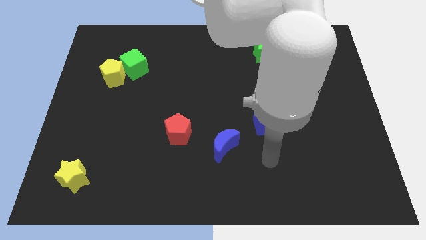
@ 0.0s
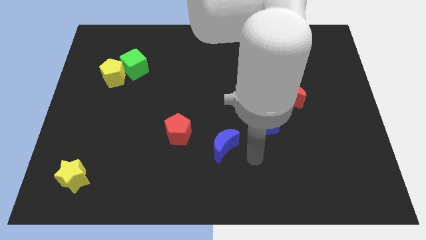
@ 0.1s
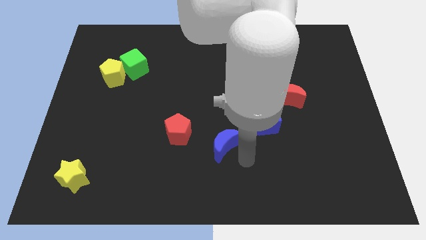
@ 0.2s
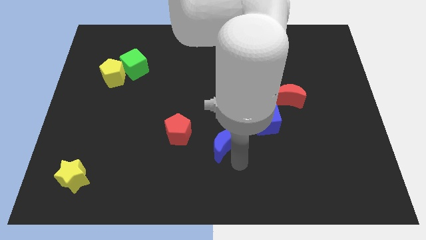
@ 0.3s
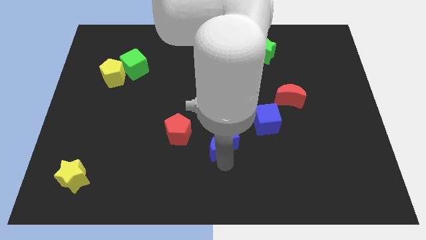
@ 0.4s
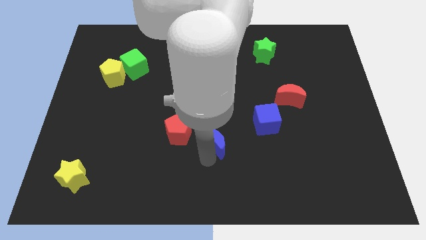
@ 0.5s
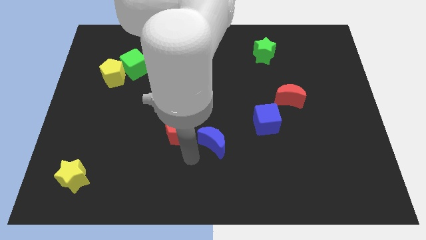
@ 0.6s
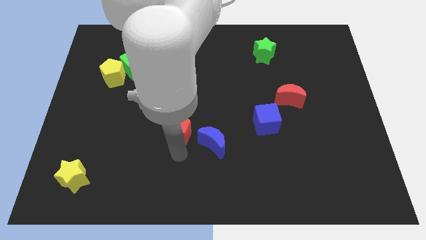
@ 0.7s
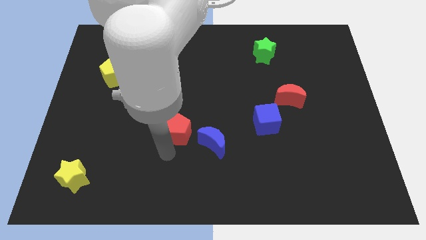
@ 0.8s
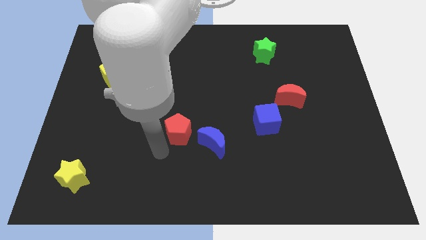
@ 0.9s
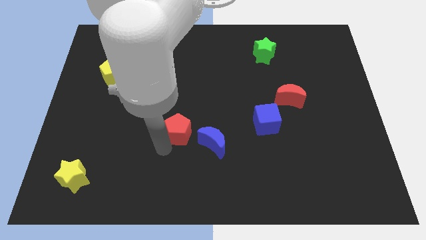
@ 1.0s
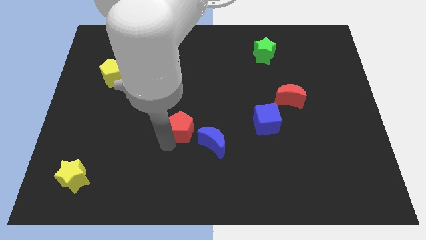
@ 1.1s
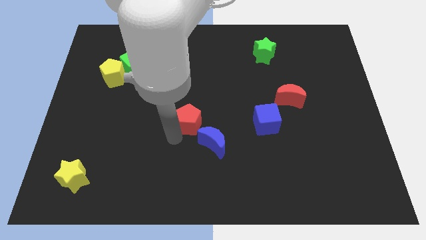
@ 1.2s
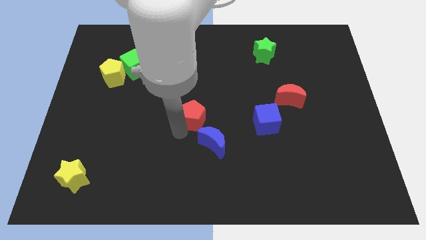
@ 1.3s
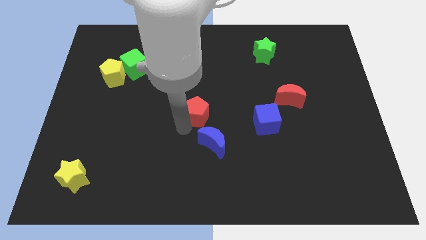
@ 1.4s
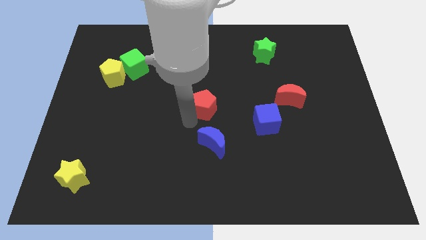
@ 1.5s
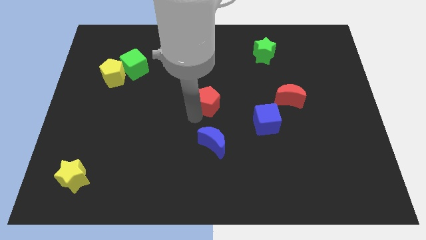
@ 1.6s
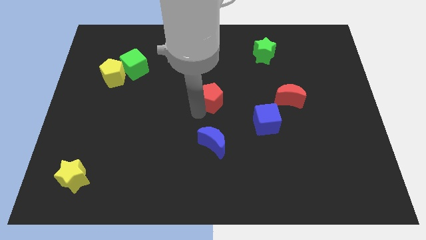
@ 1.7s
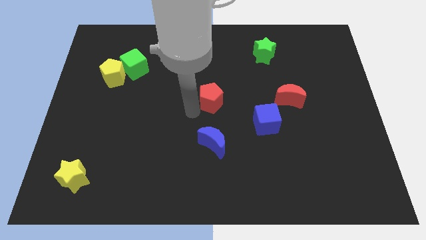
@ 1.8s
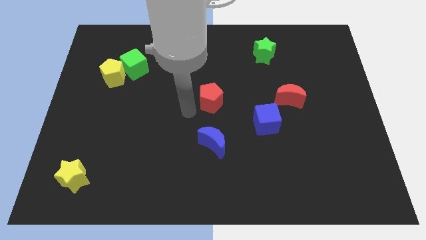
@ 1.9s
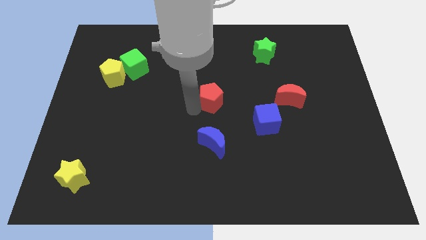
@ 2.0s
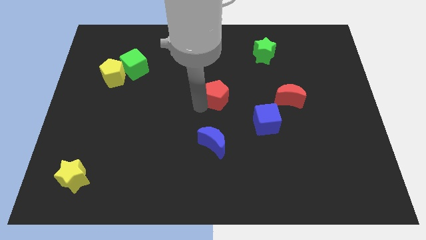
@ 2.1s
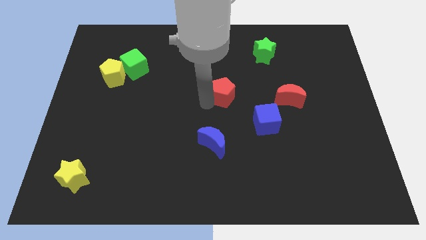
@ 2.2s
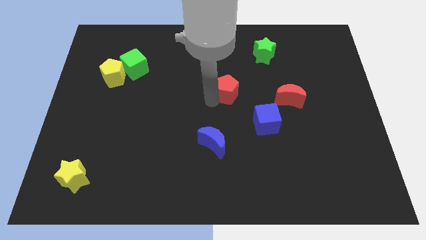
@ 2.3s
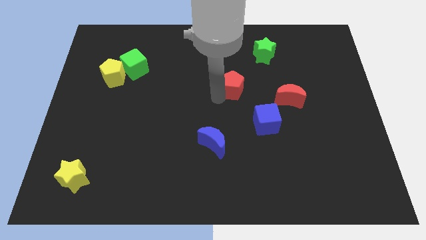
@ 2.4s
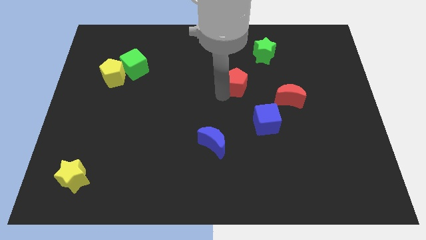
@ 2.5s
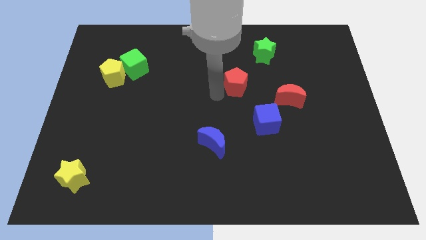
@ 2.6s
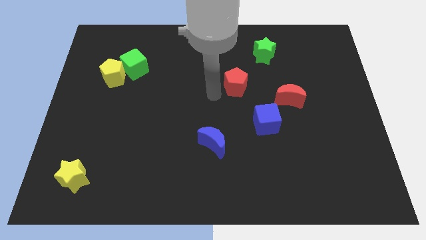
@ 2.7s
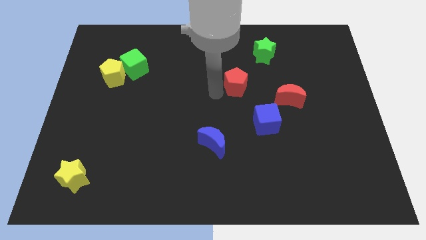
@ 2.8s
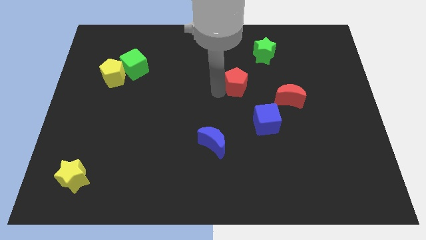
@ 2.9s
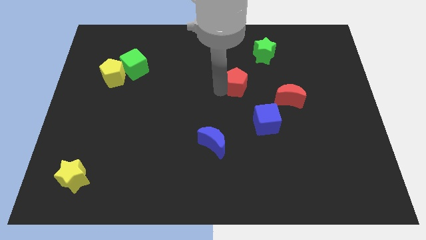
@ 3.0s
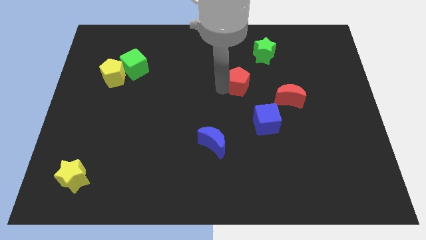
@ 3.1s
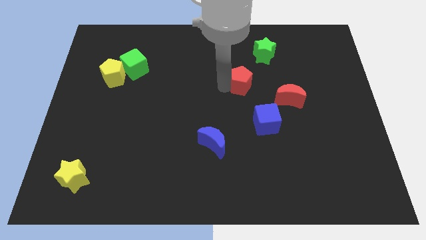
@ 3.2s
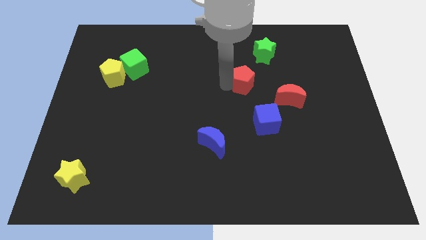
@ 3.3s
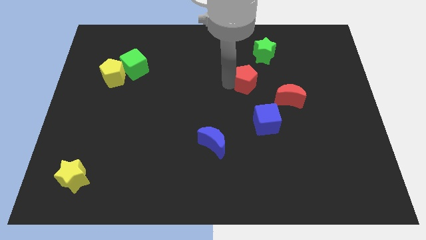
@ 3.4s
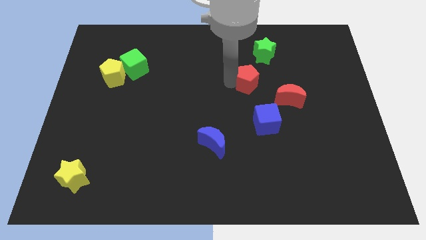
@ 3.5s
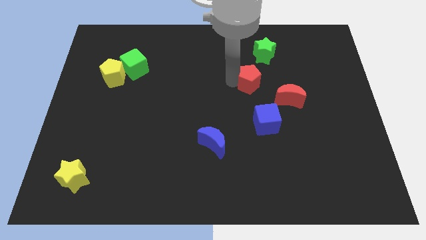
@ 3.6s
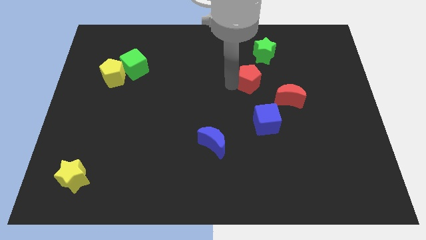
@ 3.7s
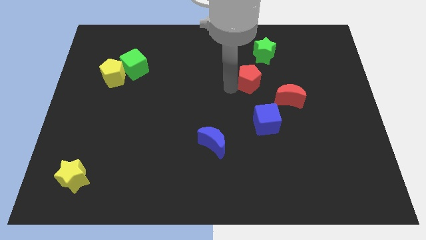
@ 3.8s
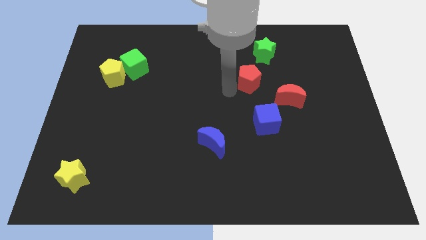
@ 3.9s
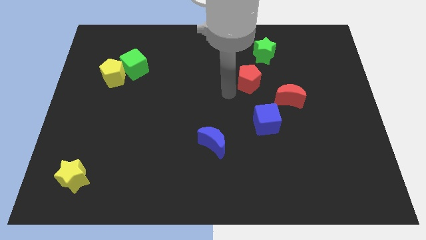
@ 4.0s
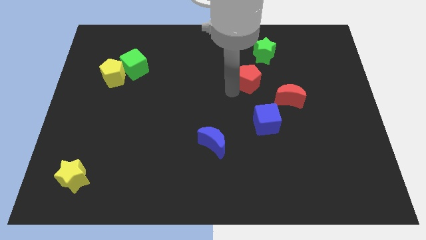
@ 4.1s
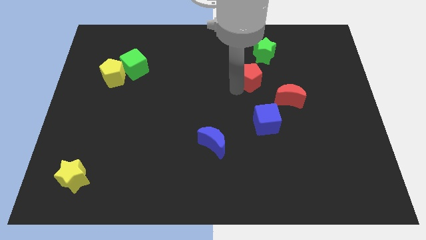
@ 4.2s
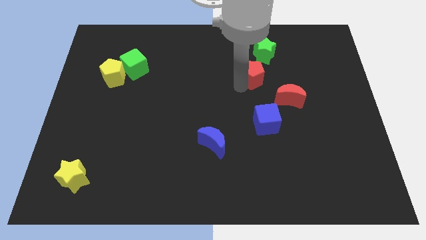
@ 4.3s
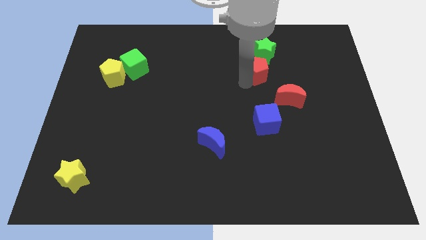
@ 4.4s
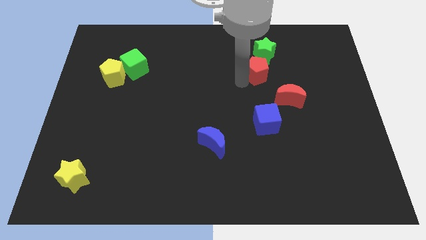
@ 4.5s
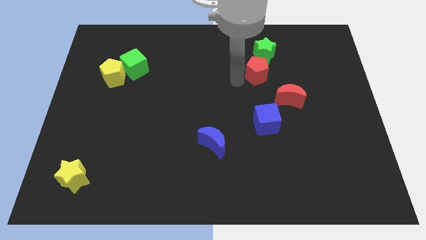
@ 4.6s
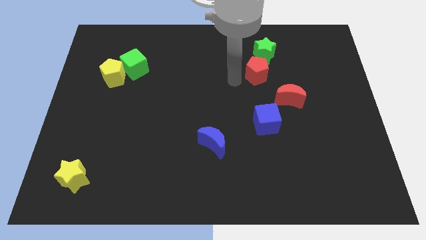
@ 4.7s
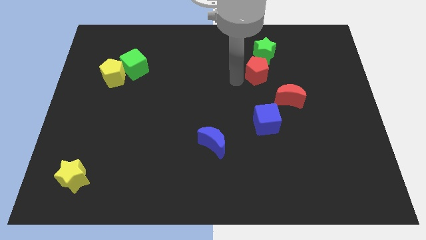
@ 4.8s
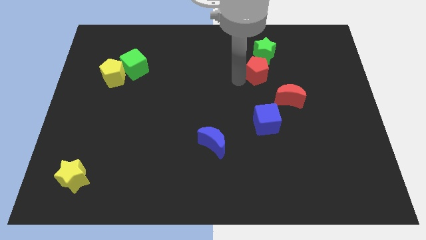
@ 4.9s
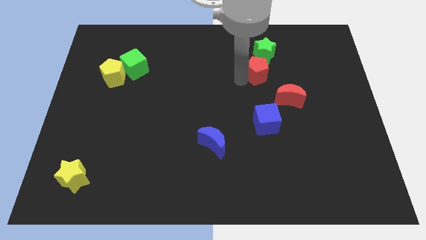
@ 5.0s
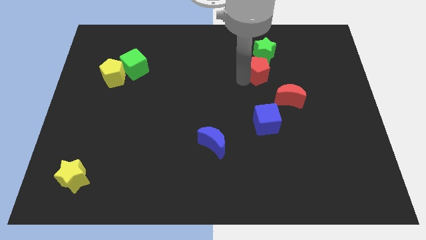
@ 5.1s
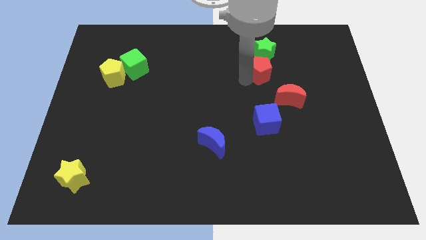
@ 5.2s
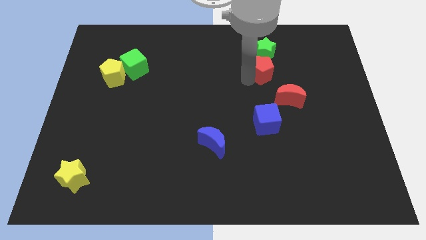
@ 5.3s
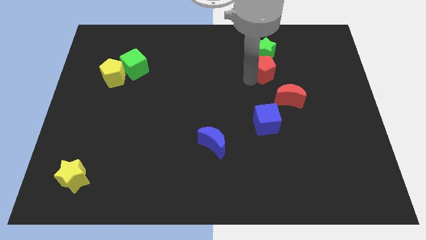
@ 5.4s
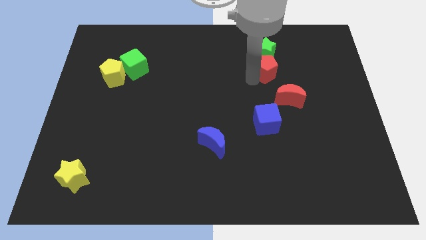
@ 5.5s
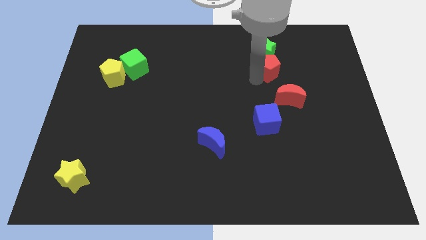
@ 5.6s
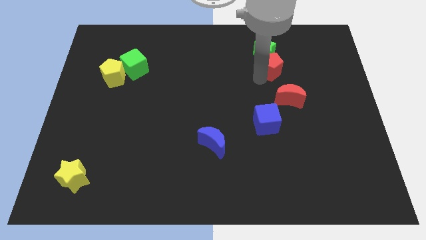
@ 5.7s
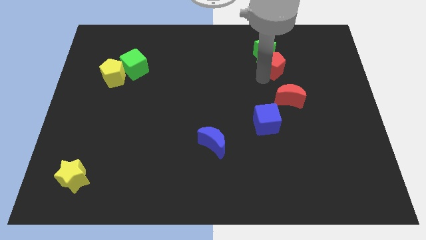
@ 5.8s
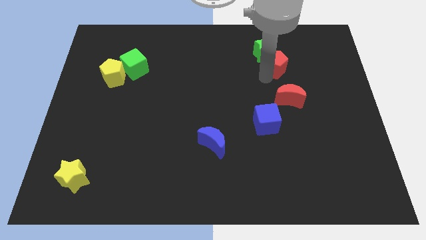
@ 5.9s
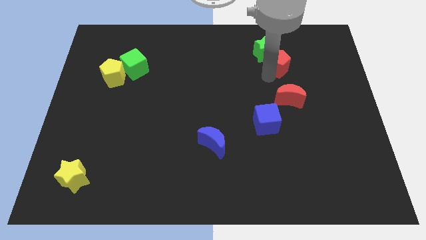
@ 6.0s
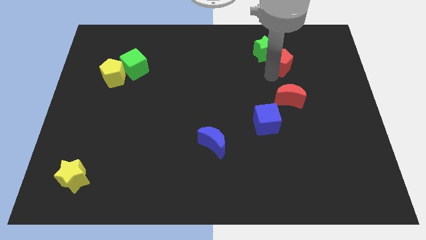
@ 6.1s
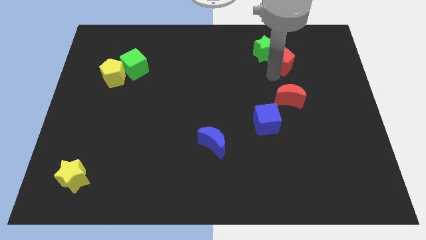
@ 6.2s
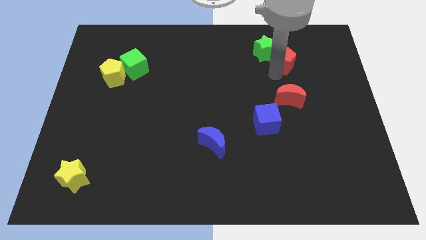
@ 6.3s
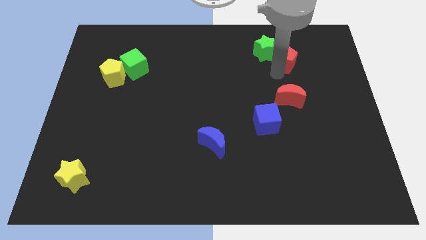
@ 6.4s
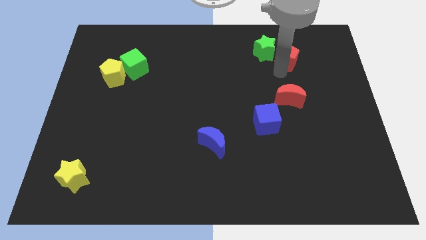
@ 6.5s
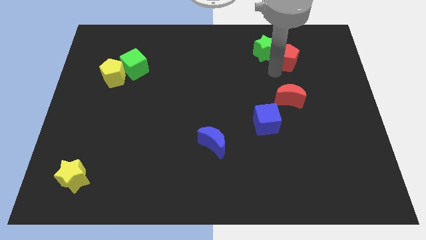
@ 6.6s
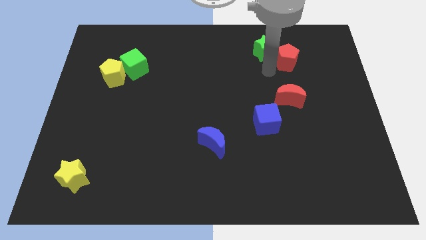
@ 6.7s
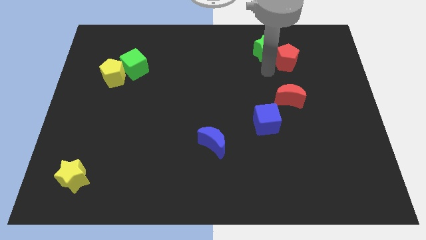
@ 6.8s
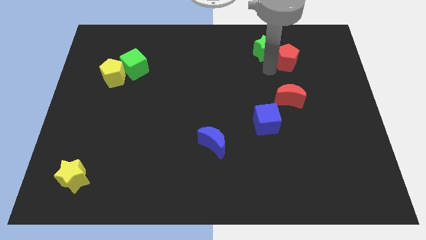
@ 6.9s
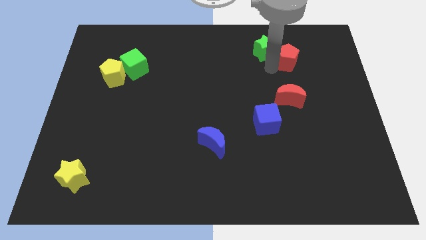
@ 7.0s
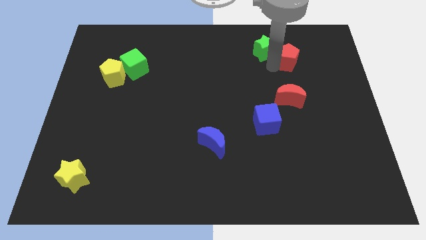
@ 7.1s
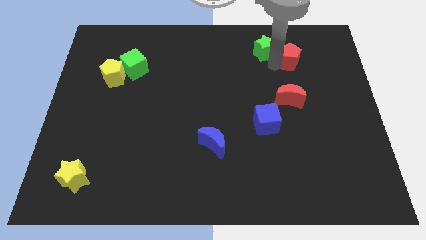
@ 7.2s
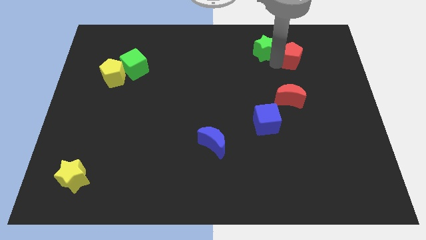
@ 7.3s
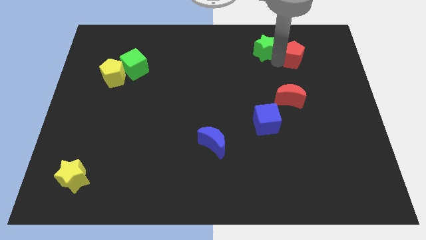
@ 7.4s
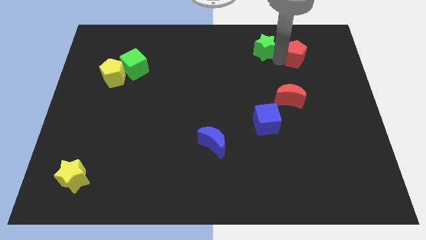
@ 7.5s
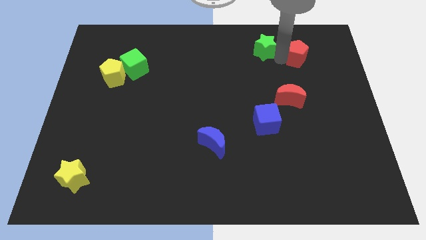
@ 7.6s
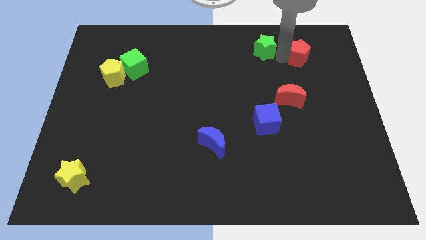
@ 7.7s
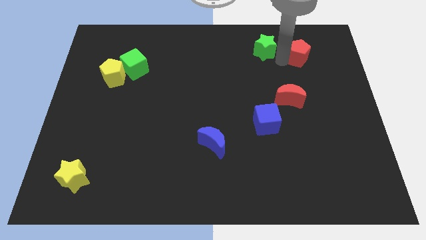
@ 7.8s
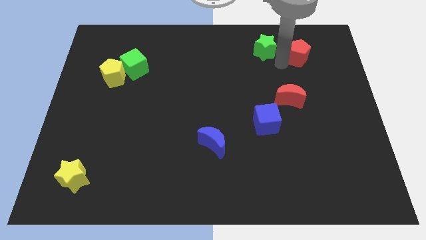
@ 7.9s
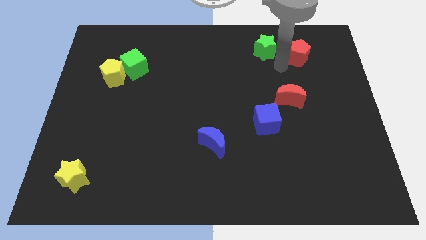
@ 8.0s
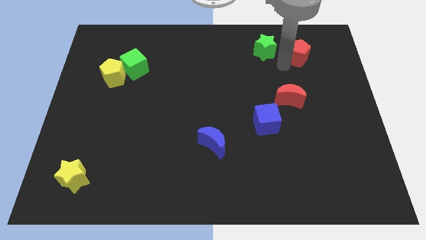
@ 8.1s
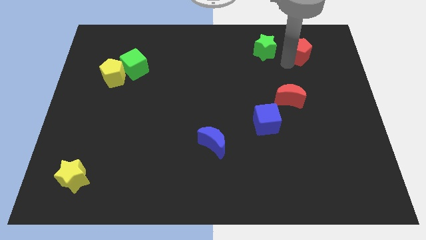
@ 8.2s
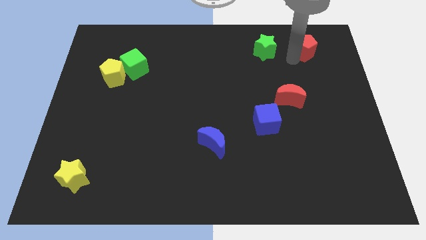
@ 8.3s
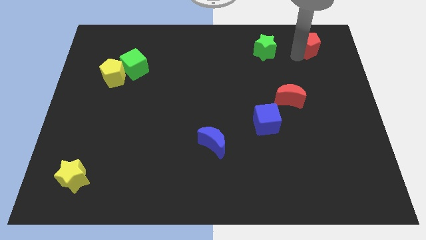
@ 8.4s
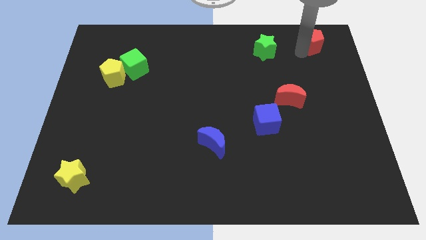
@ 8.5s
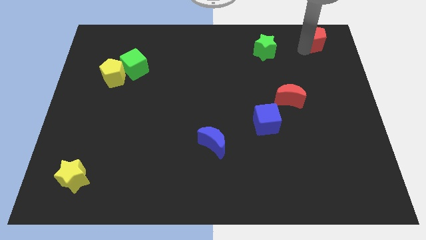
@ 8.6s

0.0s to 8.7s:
put the red pentagon to the top right corner
